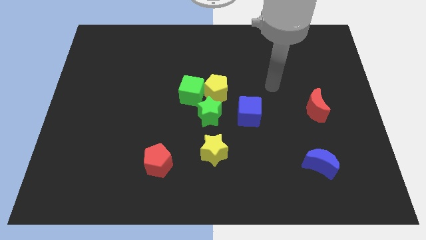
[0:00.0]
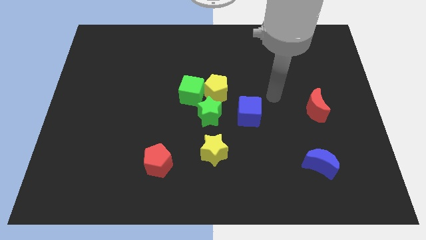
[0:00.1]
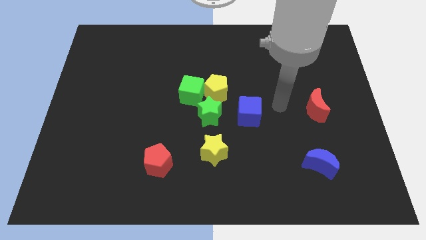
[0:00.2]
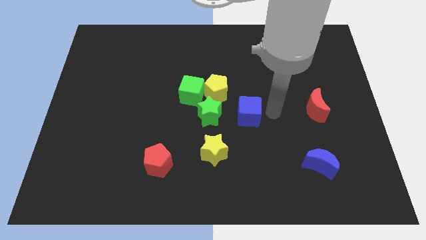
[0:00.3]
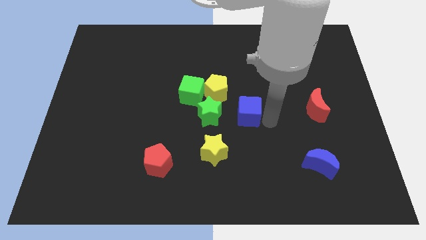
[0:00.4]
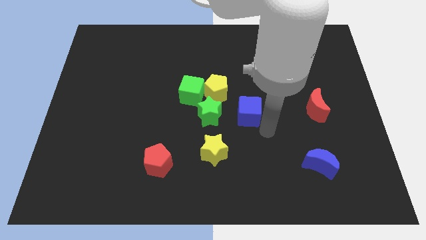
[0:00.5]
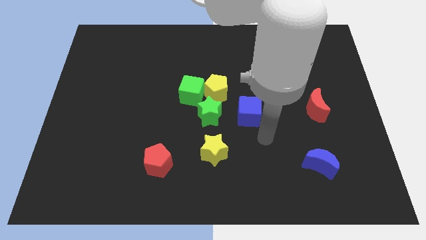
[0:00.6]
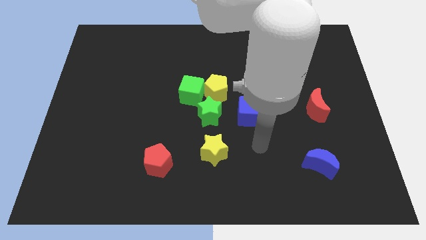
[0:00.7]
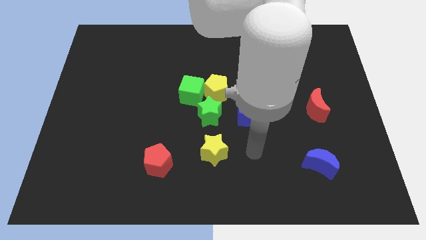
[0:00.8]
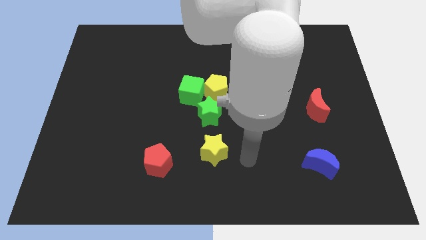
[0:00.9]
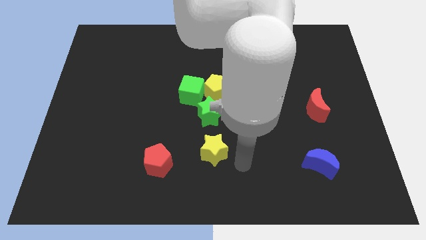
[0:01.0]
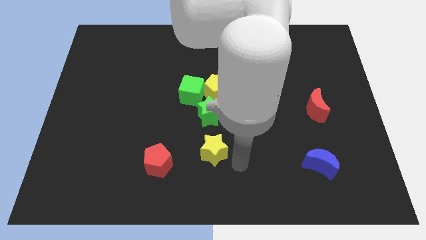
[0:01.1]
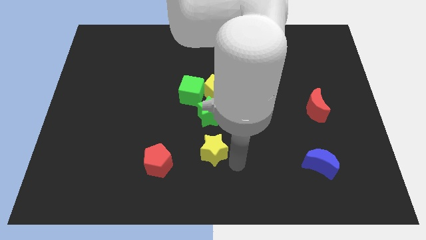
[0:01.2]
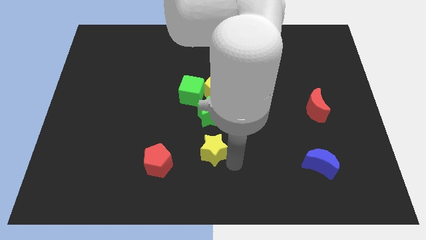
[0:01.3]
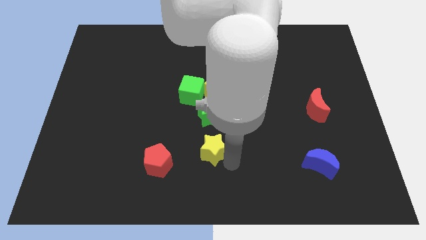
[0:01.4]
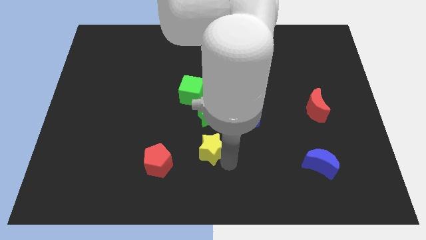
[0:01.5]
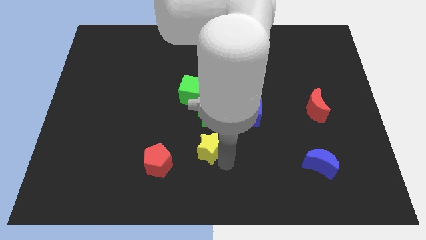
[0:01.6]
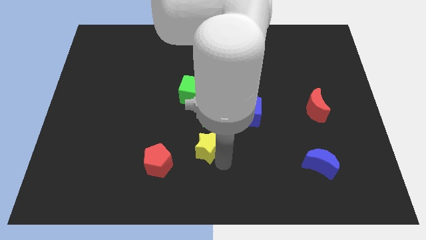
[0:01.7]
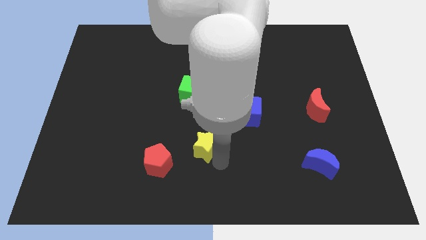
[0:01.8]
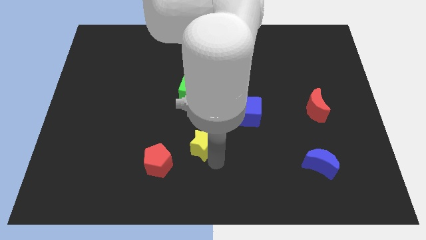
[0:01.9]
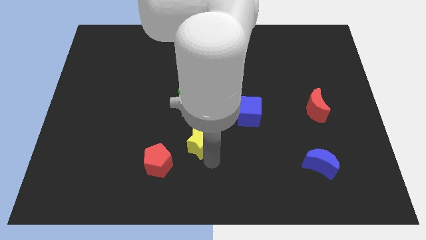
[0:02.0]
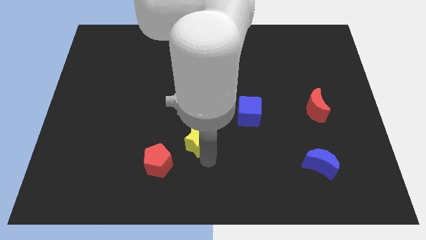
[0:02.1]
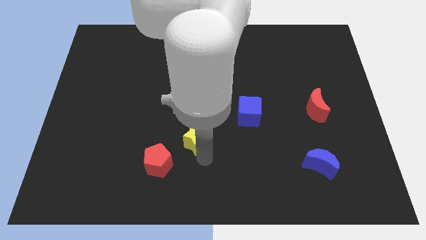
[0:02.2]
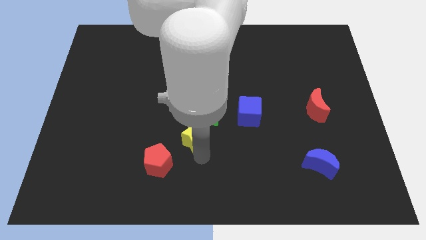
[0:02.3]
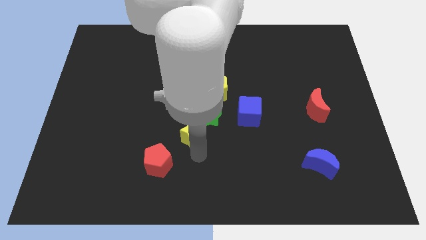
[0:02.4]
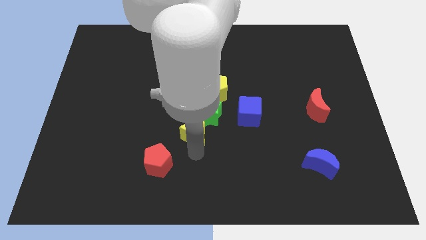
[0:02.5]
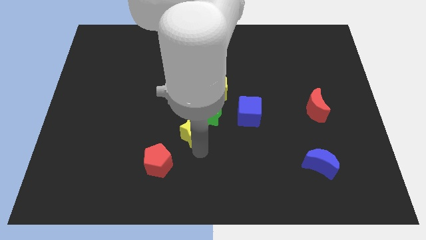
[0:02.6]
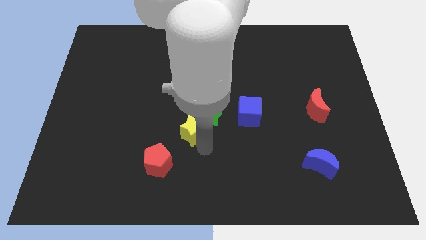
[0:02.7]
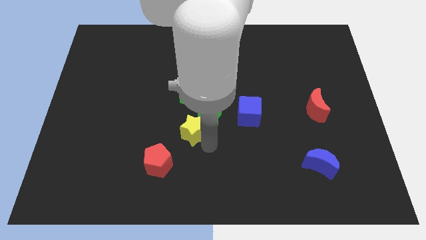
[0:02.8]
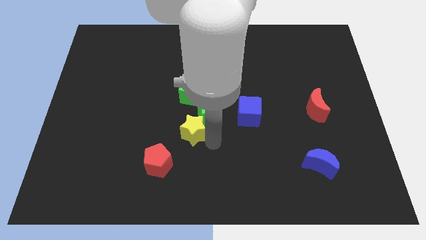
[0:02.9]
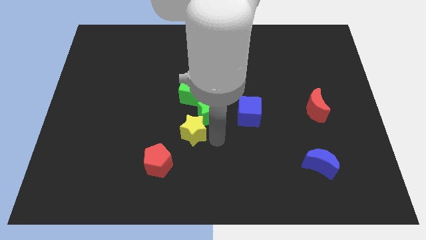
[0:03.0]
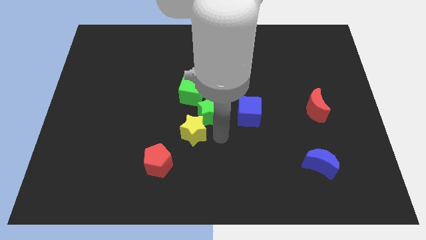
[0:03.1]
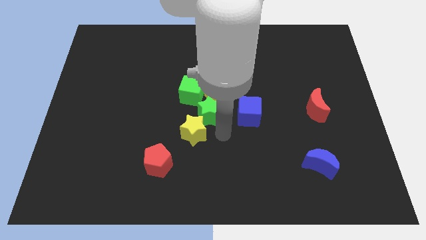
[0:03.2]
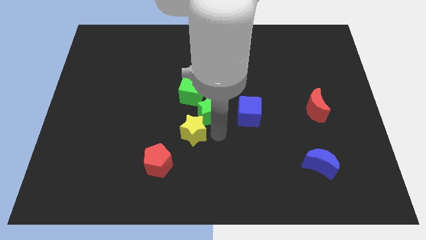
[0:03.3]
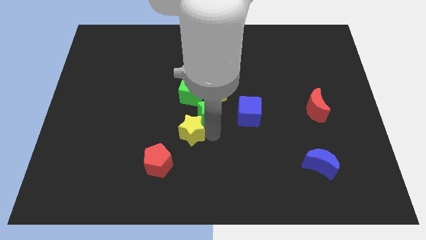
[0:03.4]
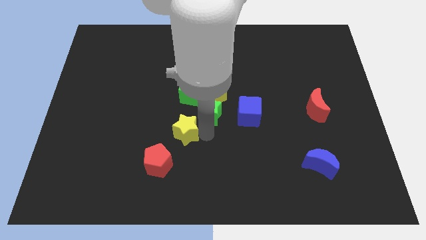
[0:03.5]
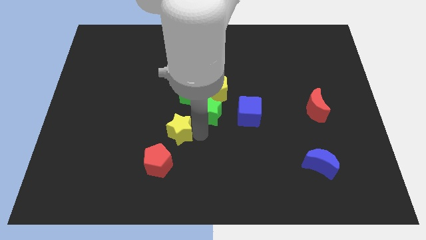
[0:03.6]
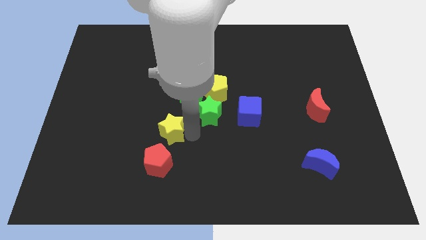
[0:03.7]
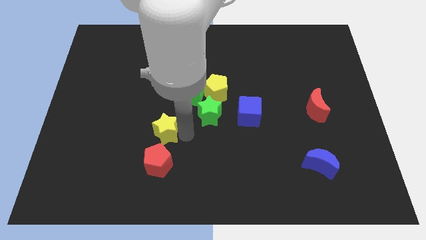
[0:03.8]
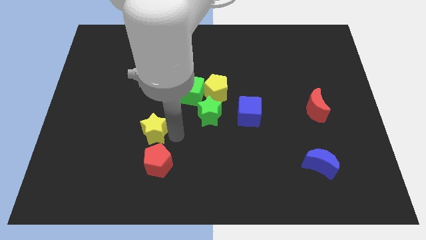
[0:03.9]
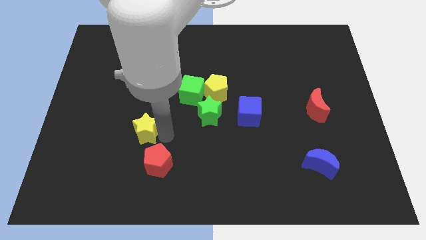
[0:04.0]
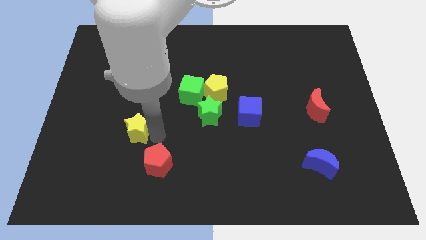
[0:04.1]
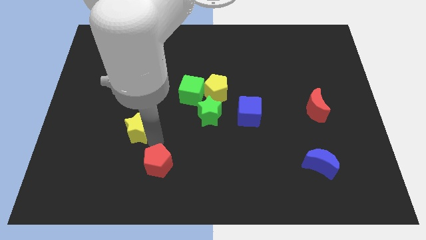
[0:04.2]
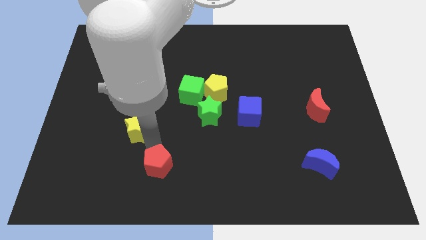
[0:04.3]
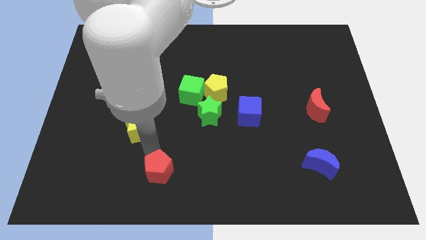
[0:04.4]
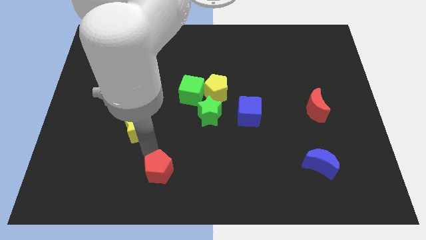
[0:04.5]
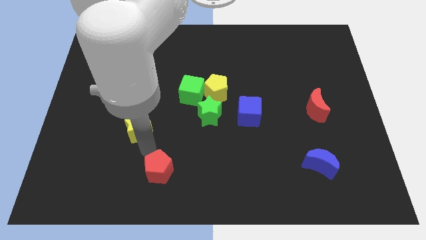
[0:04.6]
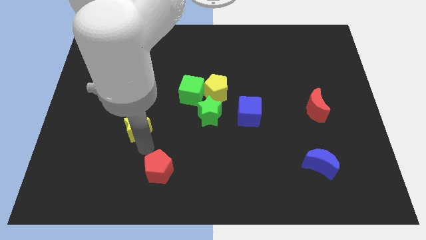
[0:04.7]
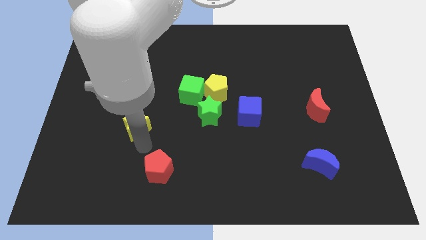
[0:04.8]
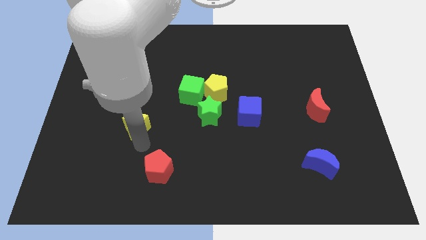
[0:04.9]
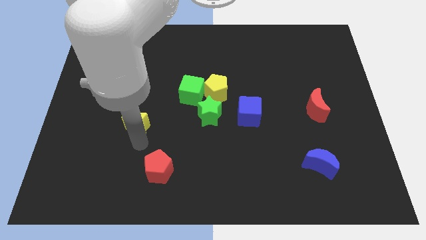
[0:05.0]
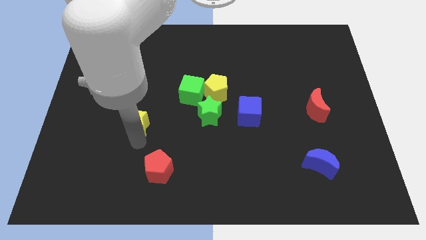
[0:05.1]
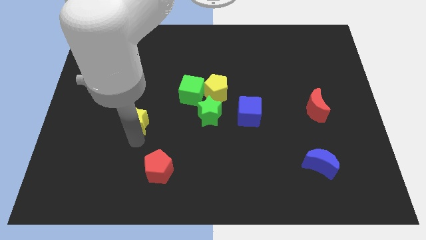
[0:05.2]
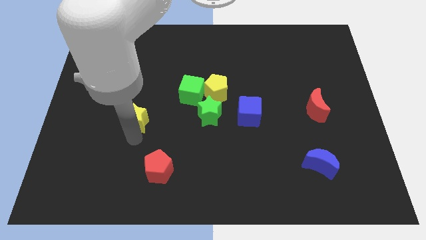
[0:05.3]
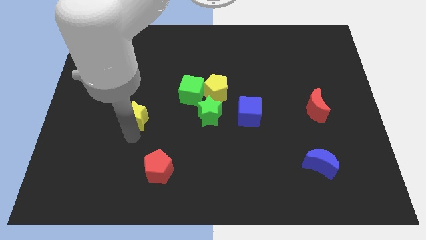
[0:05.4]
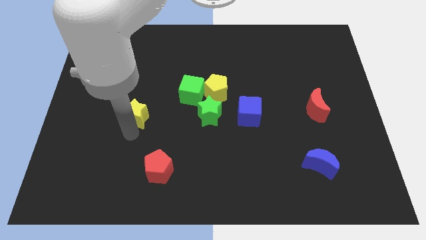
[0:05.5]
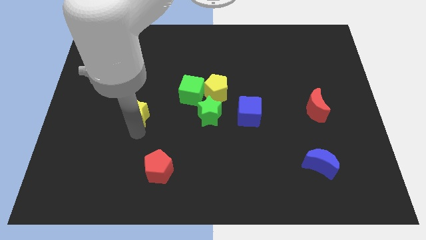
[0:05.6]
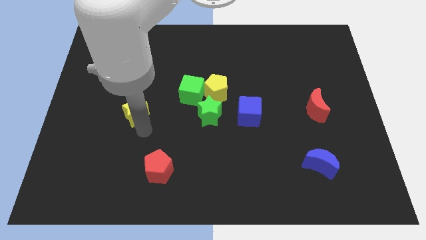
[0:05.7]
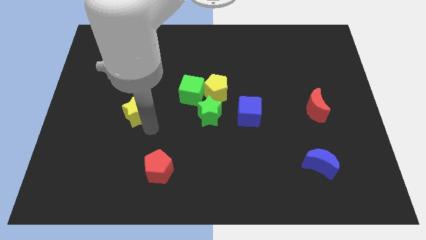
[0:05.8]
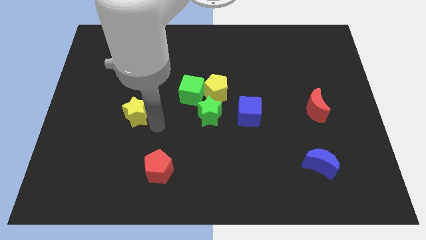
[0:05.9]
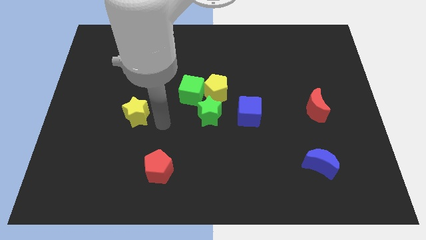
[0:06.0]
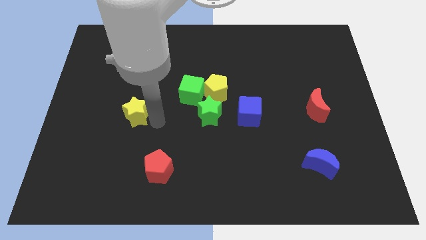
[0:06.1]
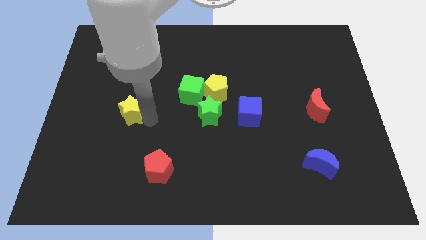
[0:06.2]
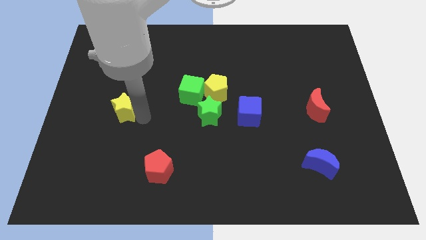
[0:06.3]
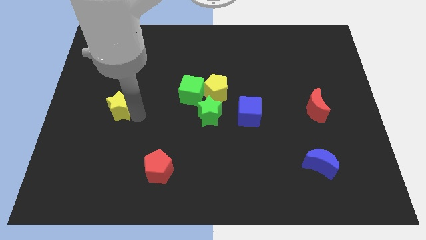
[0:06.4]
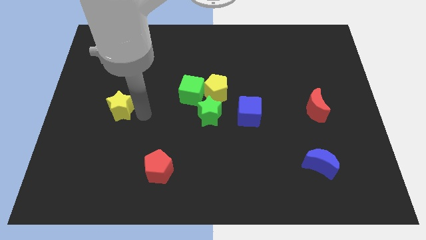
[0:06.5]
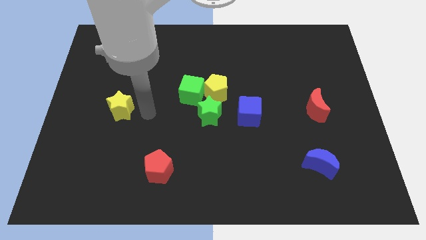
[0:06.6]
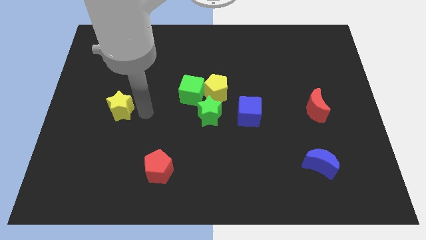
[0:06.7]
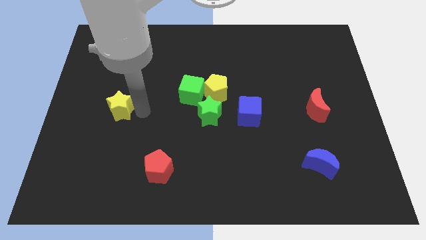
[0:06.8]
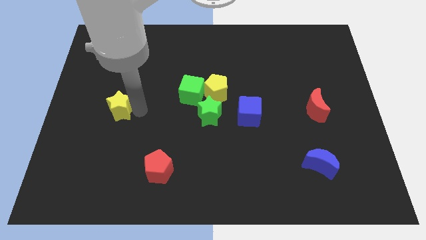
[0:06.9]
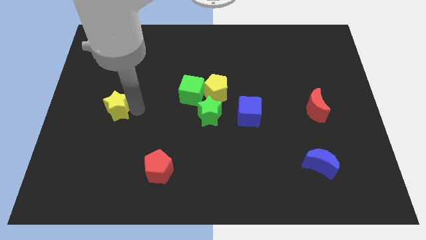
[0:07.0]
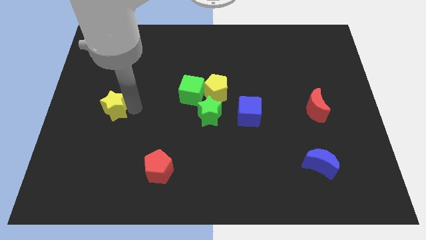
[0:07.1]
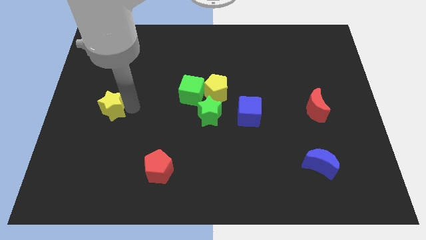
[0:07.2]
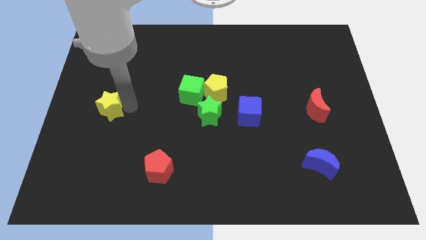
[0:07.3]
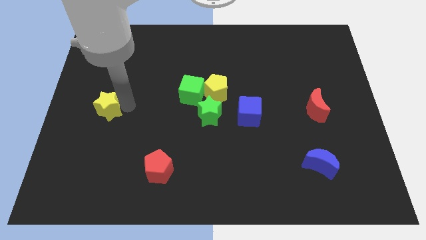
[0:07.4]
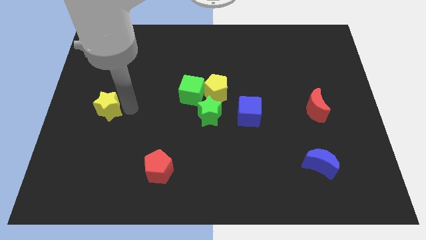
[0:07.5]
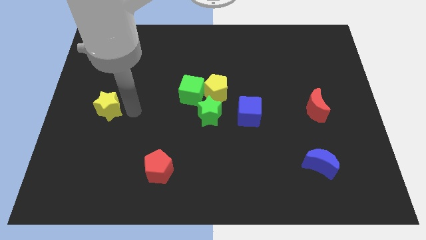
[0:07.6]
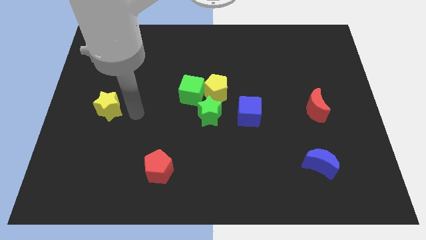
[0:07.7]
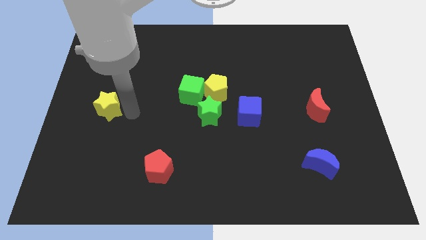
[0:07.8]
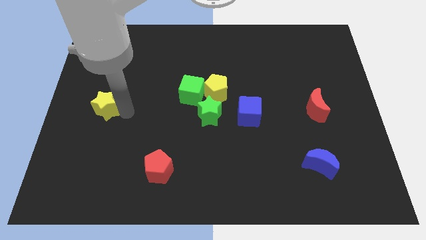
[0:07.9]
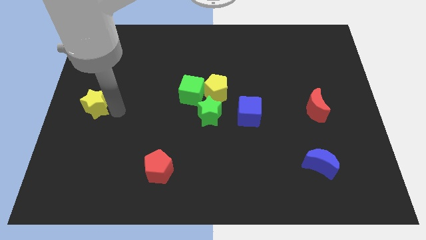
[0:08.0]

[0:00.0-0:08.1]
push the yellow star to the left side
